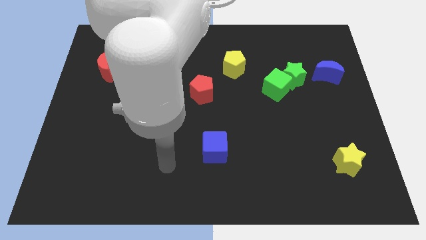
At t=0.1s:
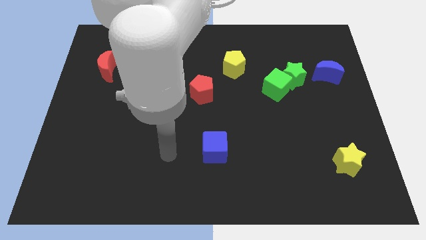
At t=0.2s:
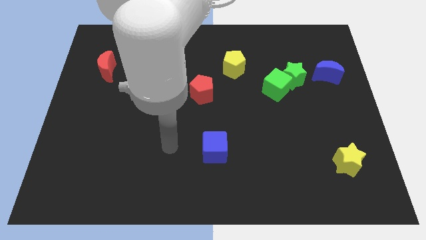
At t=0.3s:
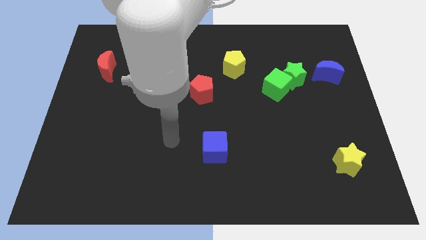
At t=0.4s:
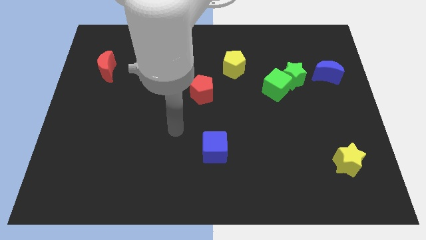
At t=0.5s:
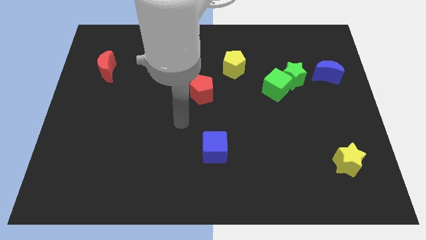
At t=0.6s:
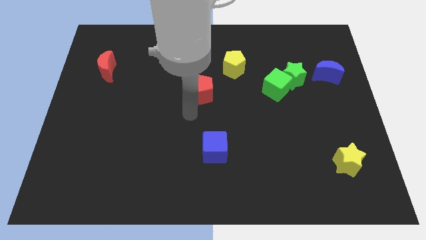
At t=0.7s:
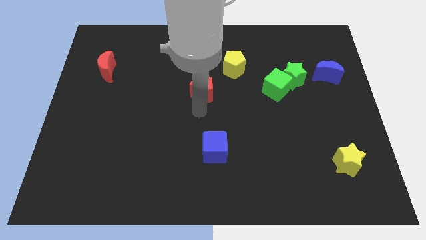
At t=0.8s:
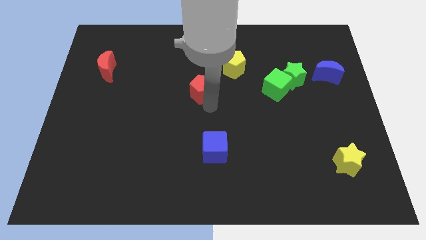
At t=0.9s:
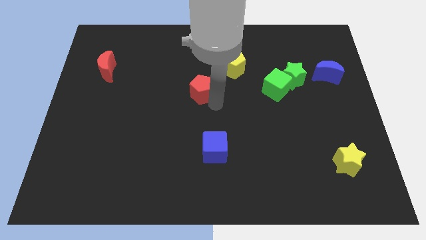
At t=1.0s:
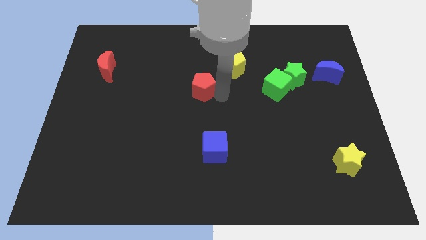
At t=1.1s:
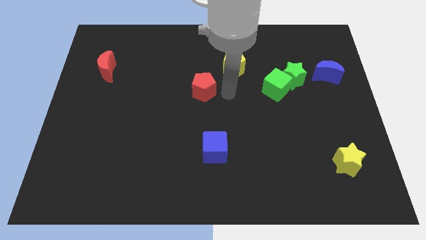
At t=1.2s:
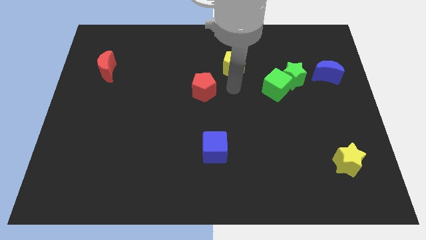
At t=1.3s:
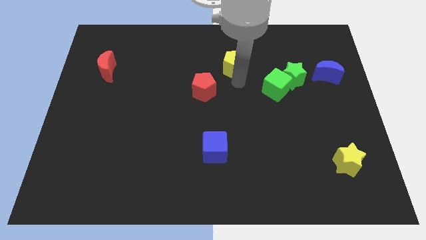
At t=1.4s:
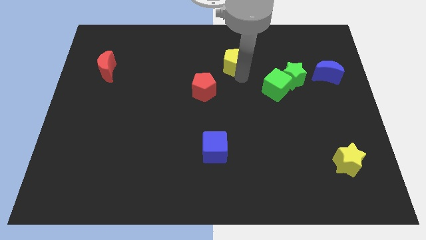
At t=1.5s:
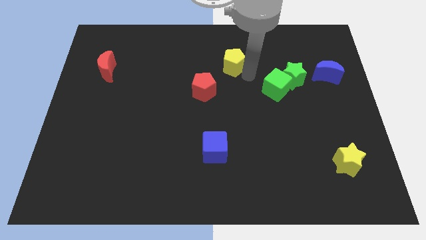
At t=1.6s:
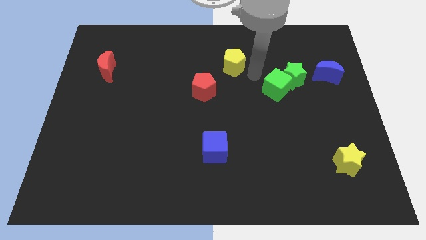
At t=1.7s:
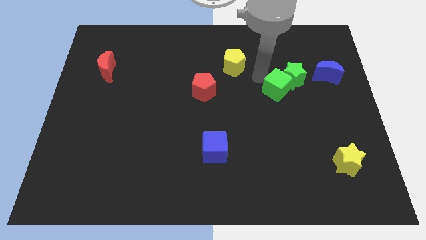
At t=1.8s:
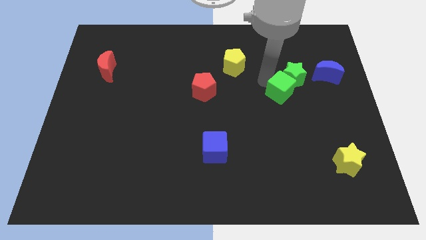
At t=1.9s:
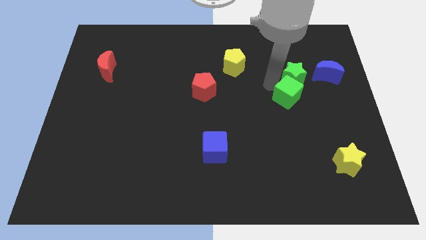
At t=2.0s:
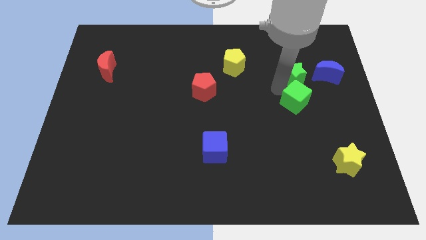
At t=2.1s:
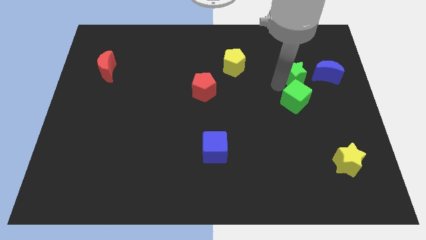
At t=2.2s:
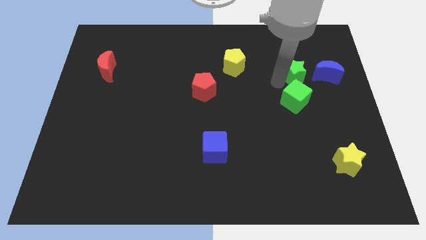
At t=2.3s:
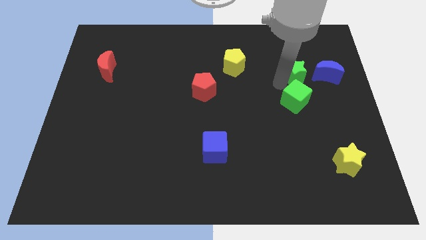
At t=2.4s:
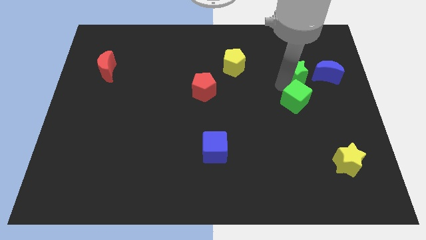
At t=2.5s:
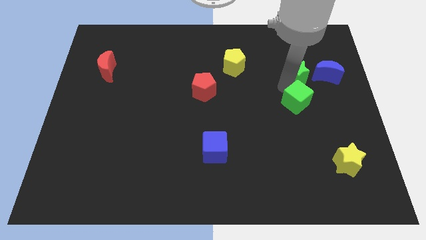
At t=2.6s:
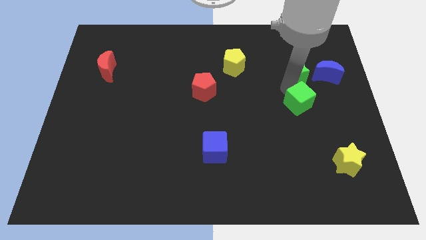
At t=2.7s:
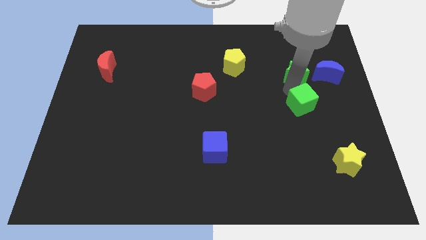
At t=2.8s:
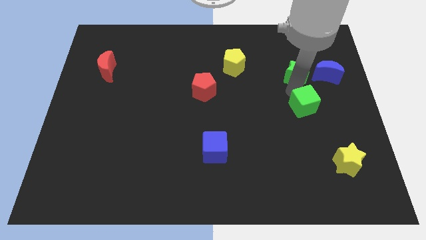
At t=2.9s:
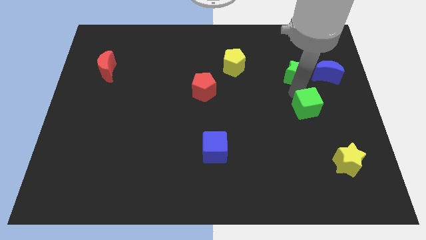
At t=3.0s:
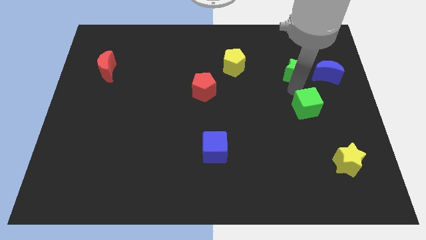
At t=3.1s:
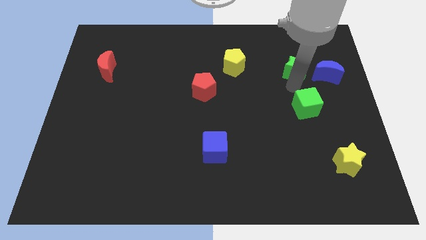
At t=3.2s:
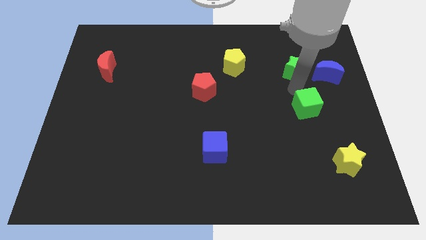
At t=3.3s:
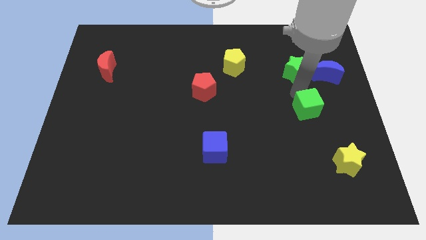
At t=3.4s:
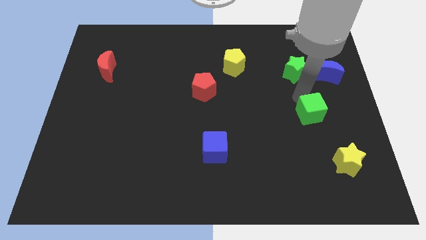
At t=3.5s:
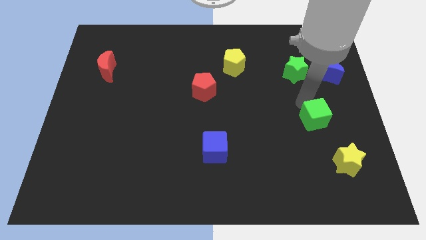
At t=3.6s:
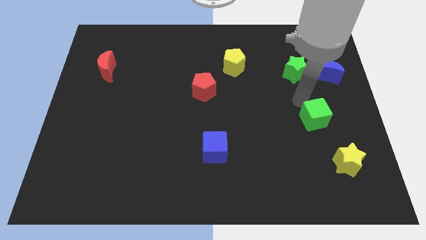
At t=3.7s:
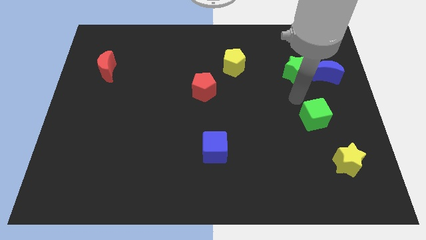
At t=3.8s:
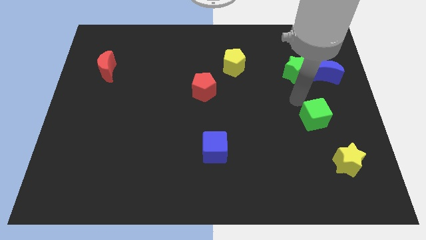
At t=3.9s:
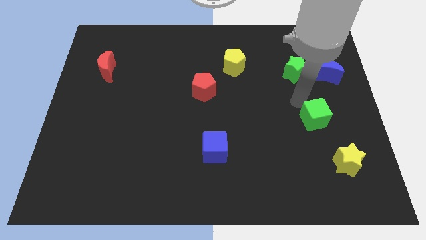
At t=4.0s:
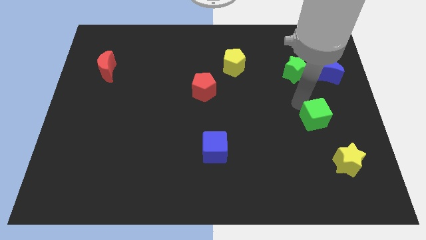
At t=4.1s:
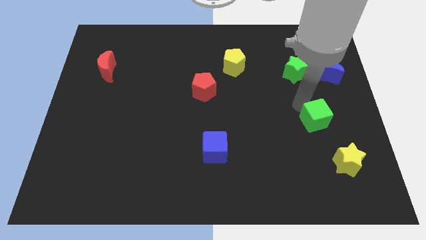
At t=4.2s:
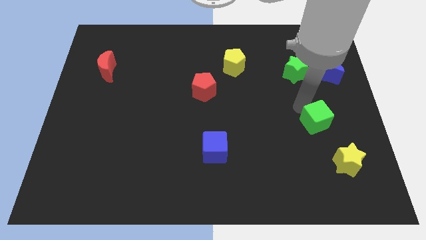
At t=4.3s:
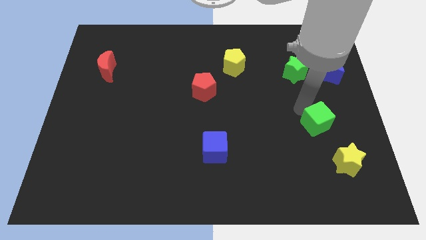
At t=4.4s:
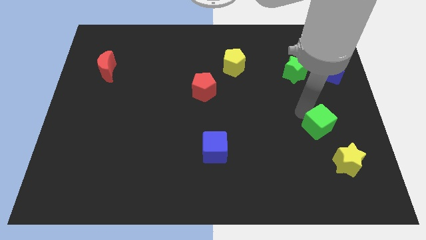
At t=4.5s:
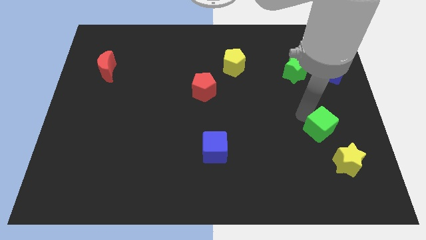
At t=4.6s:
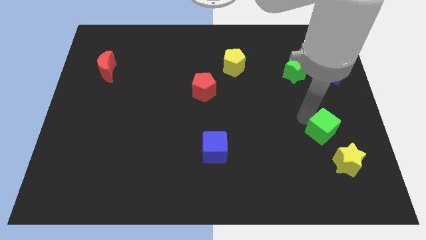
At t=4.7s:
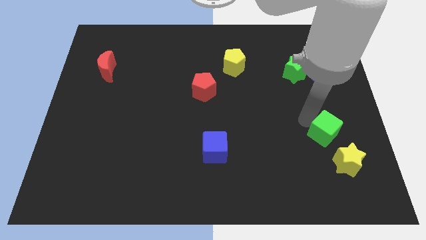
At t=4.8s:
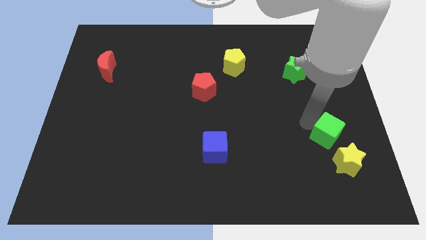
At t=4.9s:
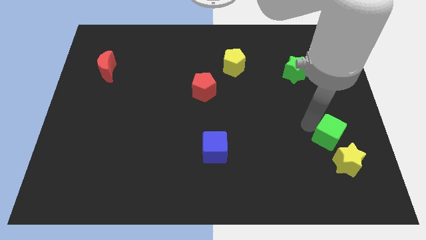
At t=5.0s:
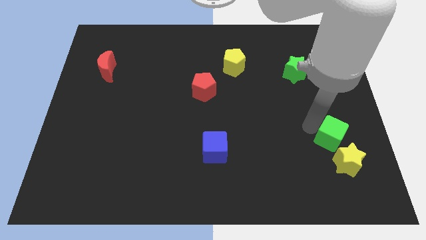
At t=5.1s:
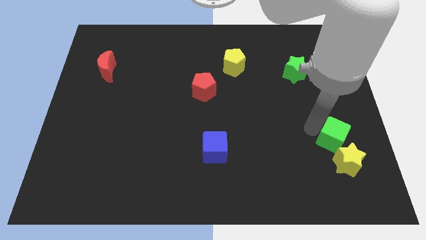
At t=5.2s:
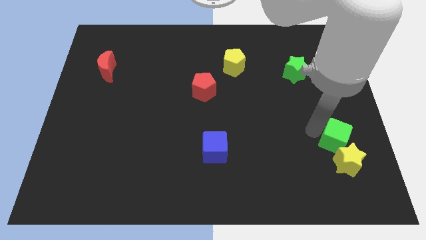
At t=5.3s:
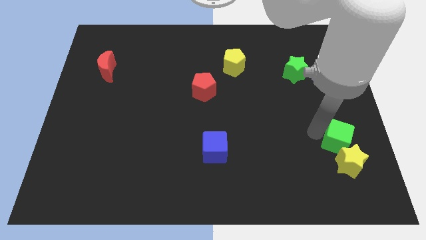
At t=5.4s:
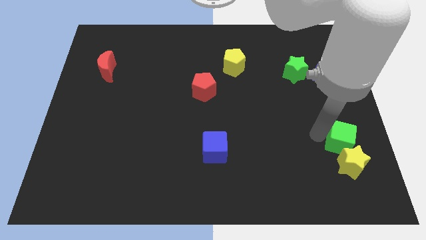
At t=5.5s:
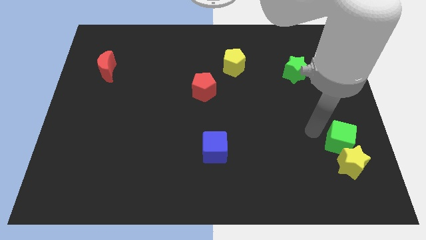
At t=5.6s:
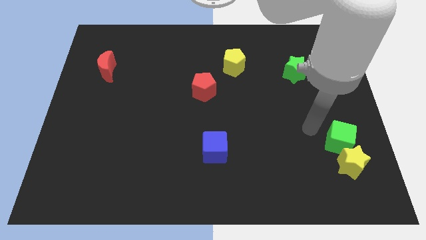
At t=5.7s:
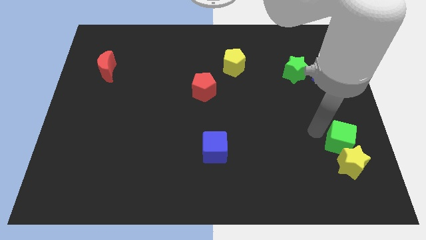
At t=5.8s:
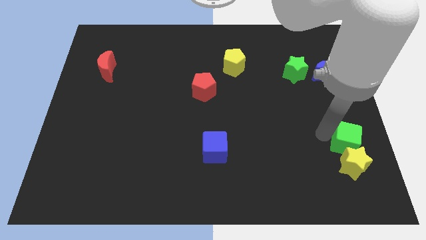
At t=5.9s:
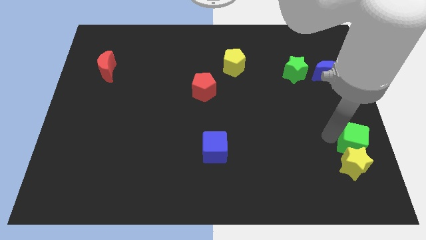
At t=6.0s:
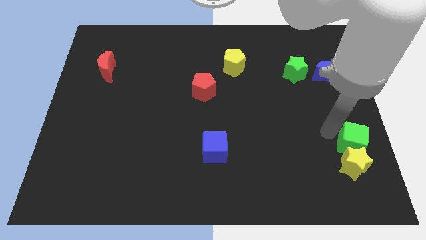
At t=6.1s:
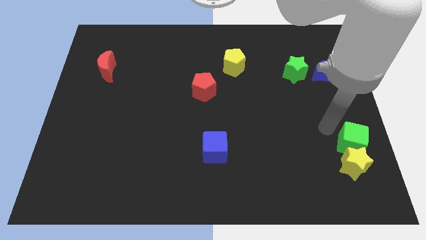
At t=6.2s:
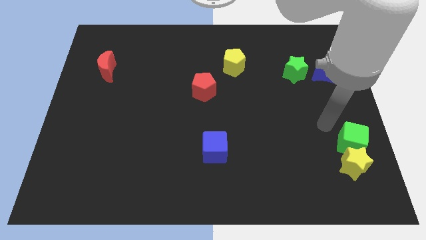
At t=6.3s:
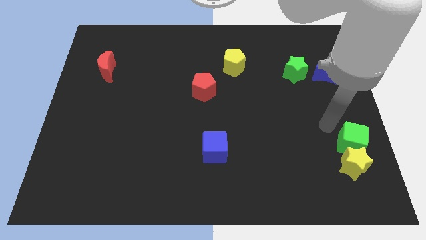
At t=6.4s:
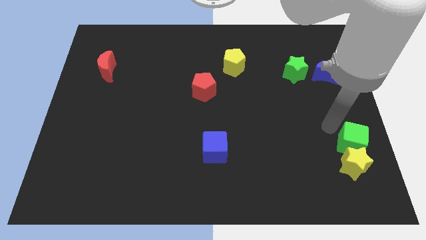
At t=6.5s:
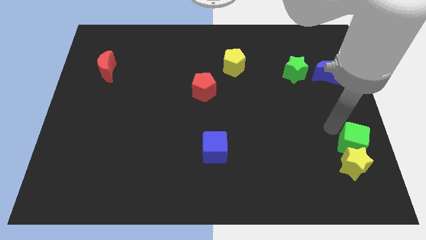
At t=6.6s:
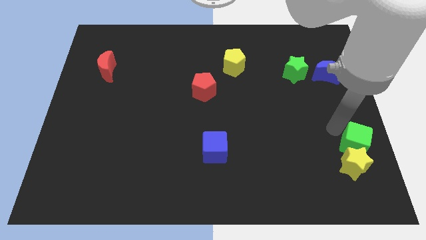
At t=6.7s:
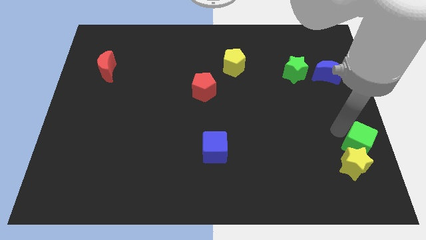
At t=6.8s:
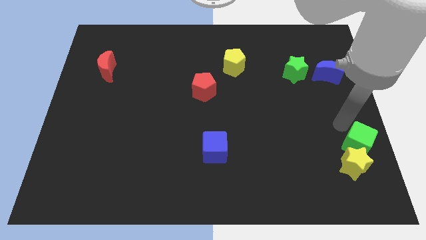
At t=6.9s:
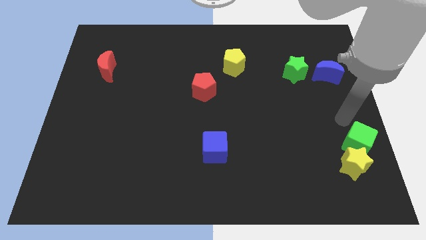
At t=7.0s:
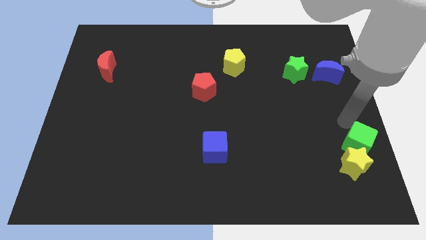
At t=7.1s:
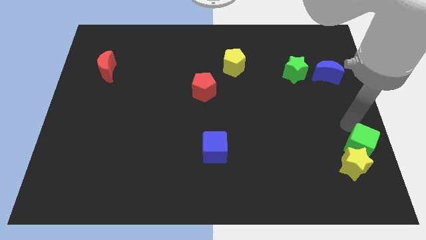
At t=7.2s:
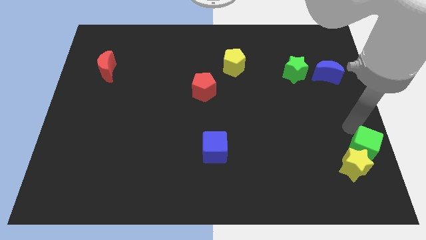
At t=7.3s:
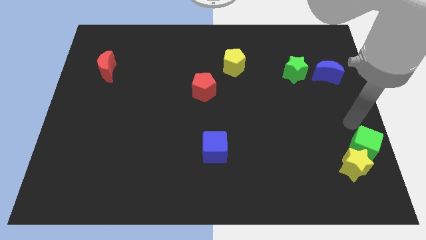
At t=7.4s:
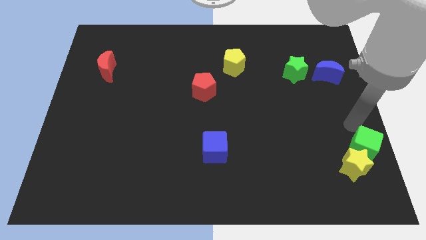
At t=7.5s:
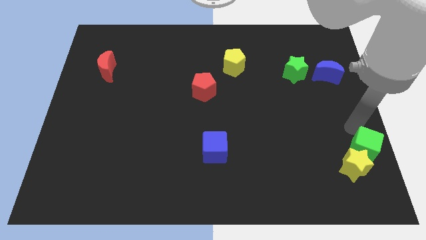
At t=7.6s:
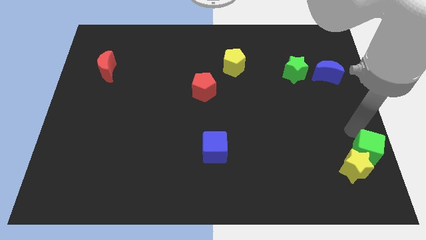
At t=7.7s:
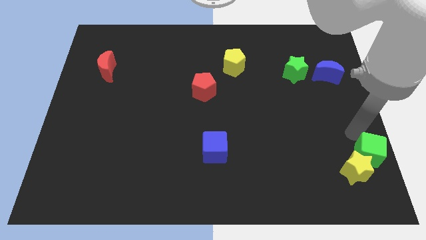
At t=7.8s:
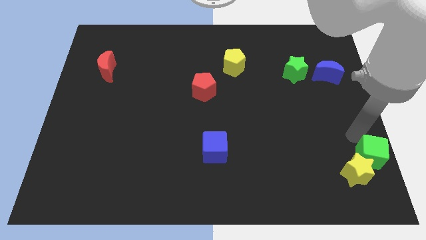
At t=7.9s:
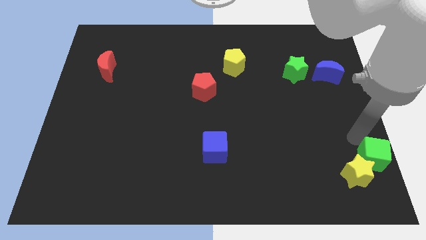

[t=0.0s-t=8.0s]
push the green cube to the bottom right of the board
